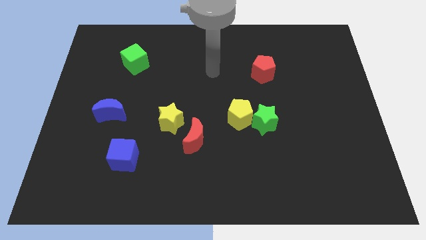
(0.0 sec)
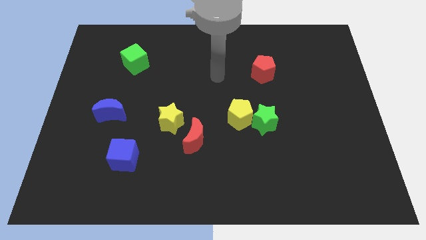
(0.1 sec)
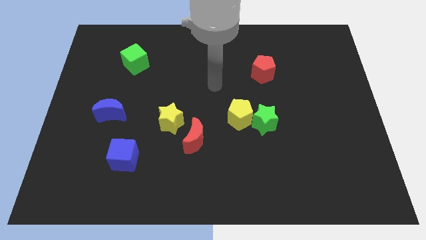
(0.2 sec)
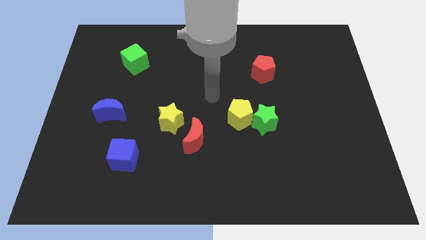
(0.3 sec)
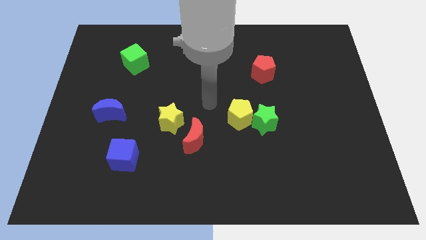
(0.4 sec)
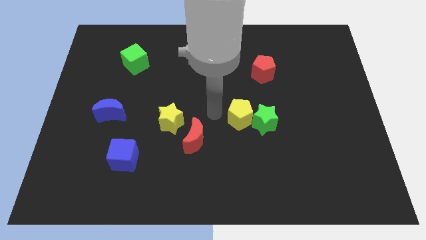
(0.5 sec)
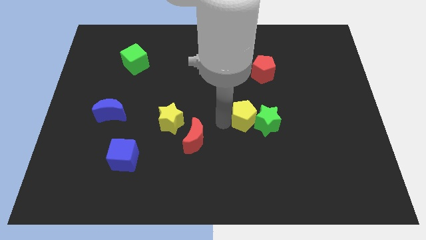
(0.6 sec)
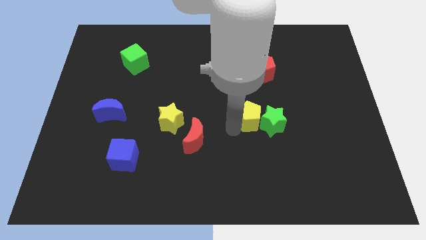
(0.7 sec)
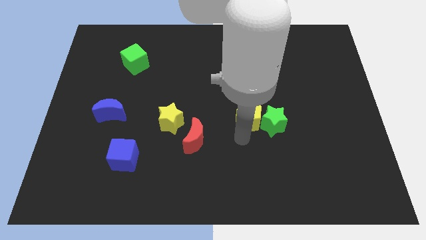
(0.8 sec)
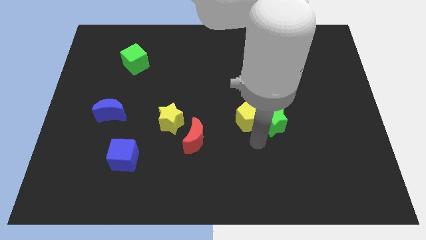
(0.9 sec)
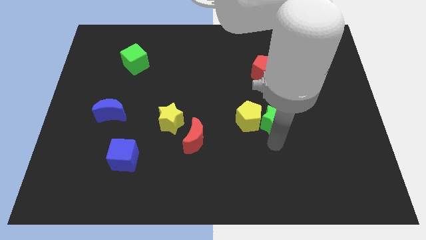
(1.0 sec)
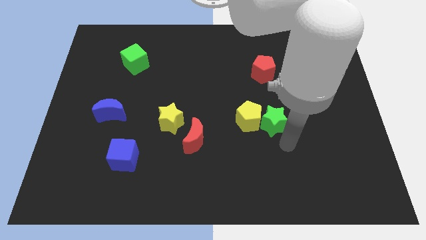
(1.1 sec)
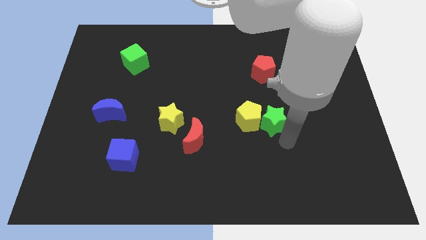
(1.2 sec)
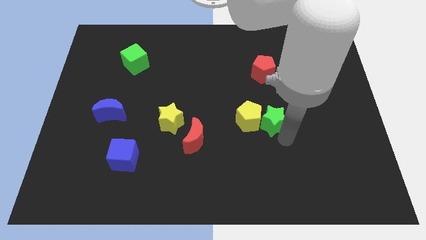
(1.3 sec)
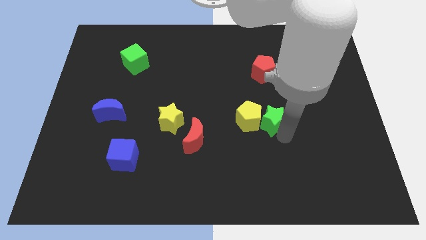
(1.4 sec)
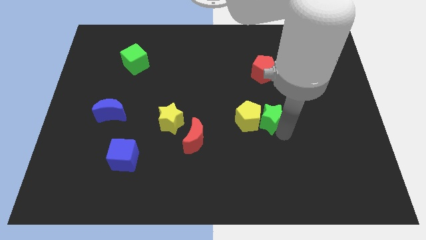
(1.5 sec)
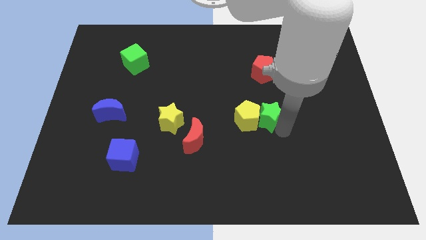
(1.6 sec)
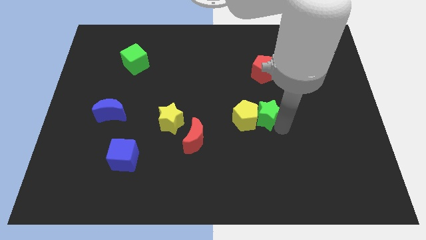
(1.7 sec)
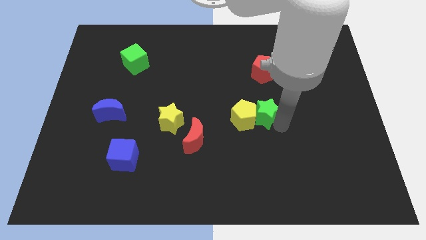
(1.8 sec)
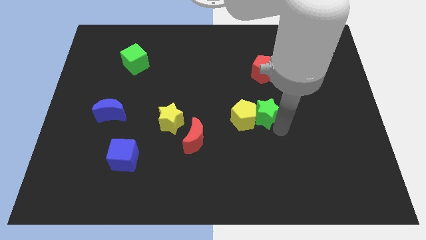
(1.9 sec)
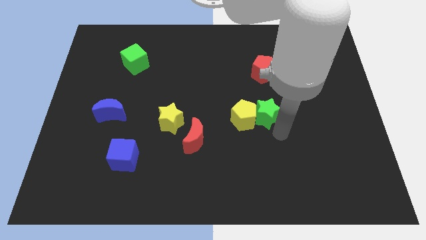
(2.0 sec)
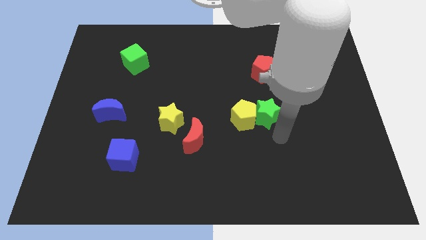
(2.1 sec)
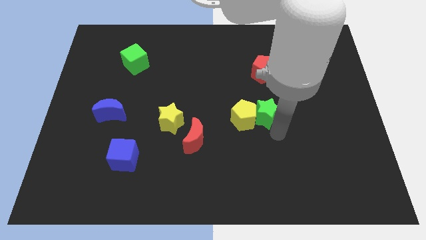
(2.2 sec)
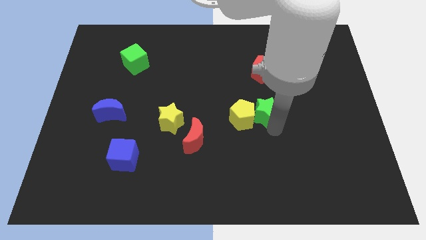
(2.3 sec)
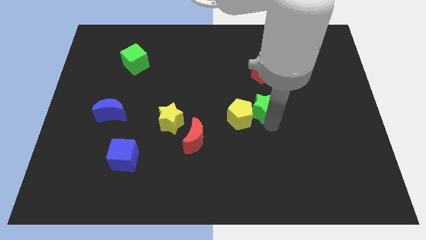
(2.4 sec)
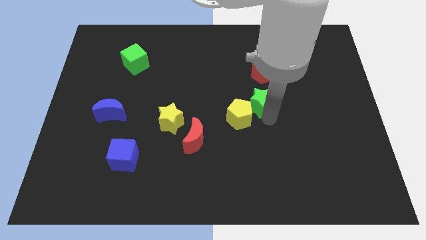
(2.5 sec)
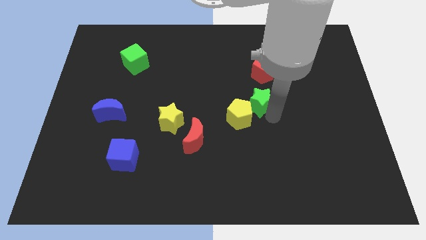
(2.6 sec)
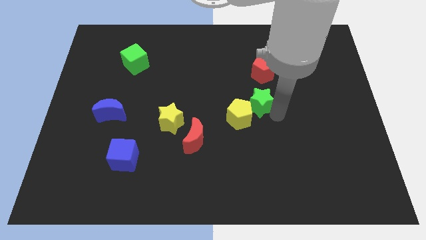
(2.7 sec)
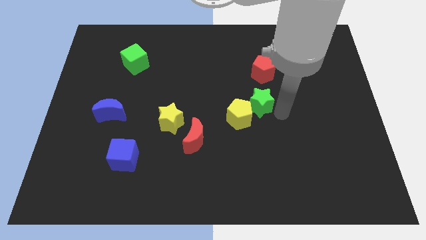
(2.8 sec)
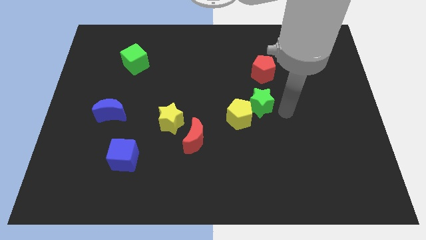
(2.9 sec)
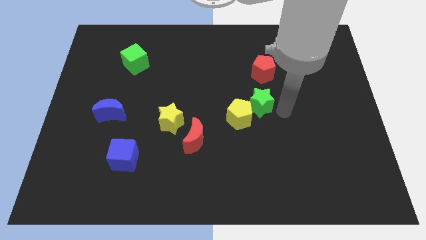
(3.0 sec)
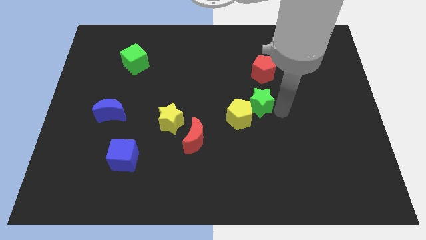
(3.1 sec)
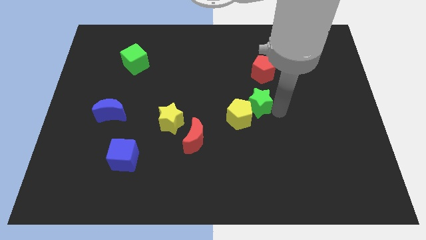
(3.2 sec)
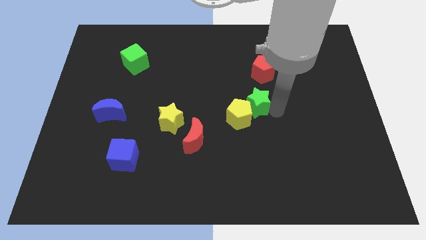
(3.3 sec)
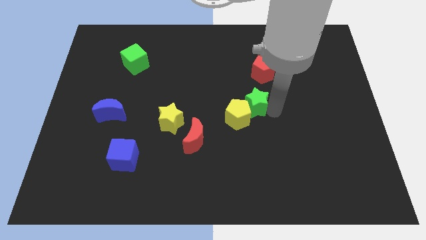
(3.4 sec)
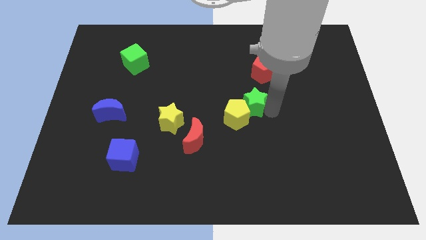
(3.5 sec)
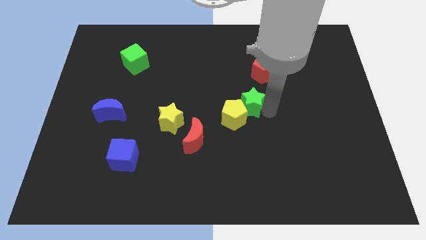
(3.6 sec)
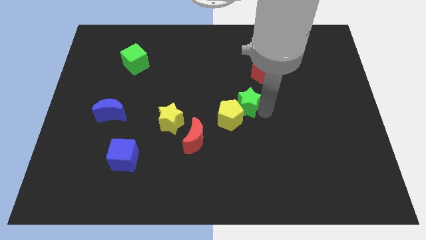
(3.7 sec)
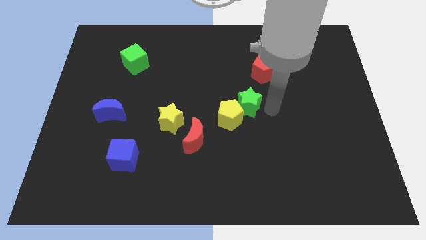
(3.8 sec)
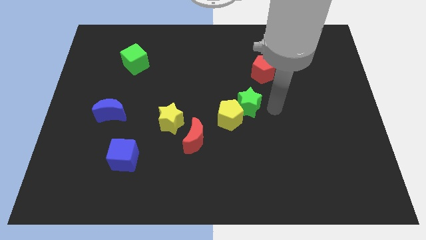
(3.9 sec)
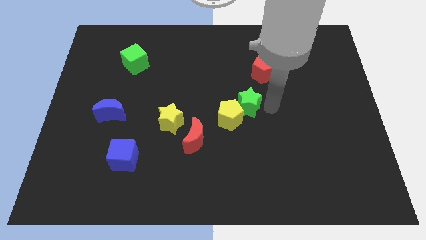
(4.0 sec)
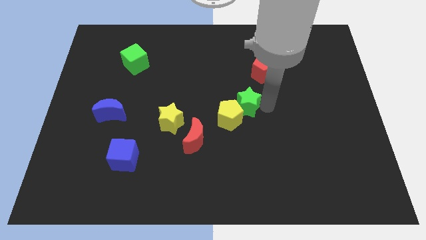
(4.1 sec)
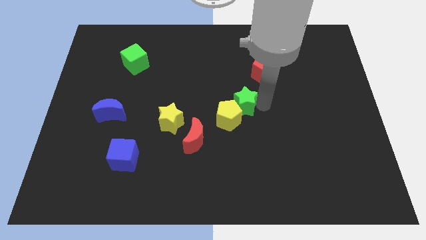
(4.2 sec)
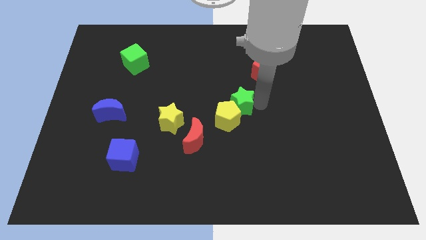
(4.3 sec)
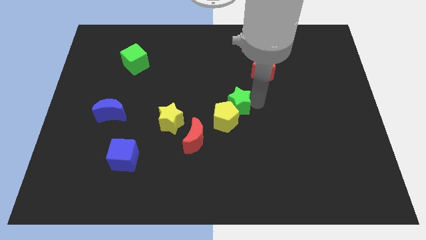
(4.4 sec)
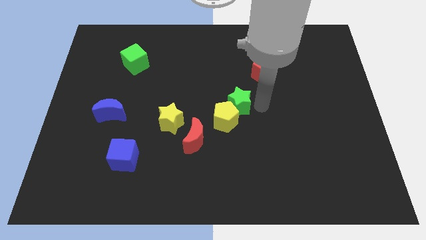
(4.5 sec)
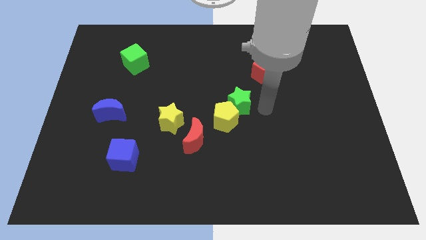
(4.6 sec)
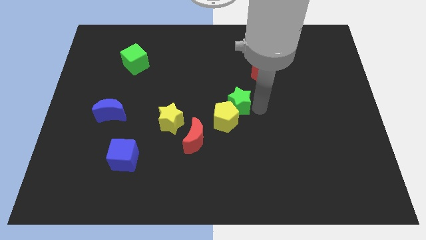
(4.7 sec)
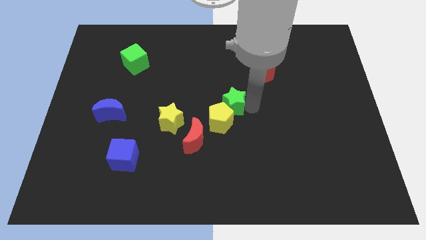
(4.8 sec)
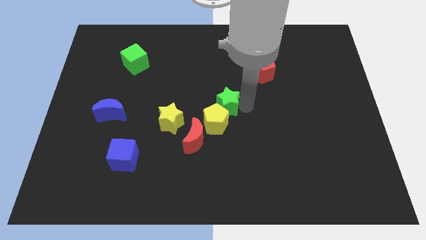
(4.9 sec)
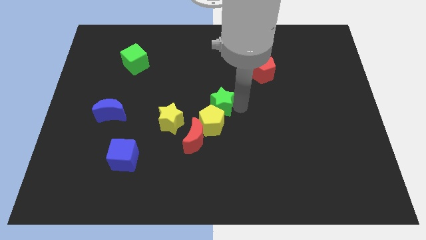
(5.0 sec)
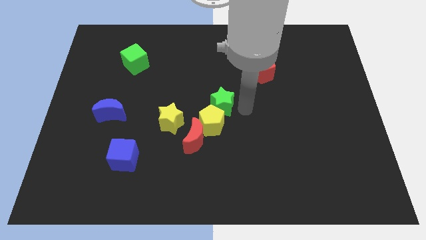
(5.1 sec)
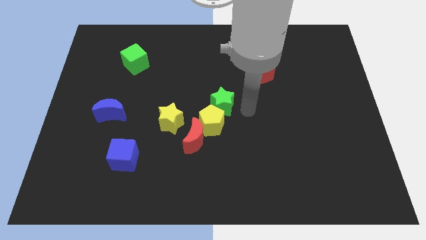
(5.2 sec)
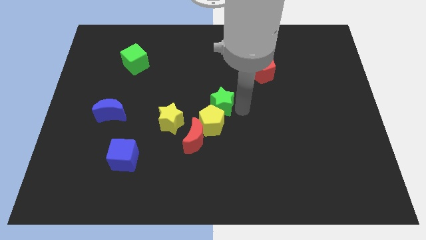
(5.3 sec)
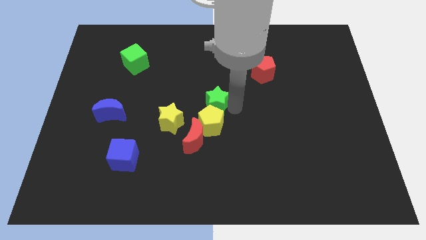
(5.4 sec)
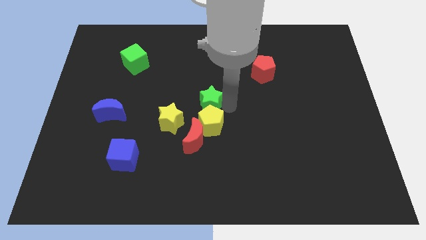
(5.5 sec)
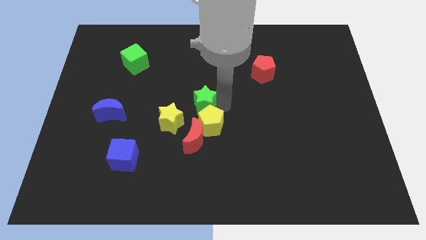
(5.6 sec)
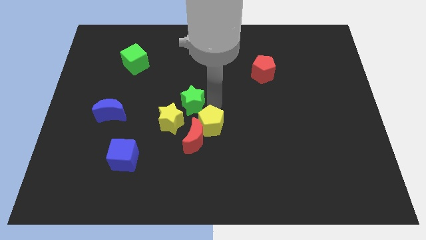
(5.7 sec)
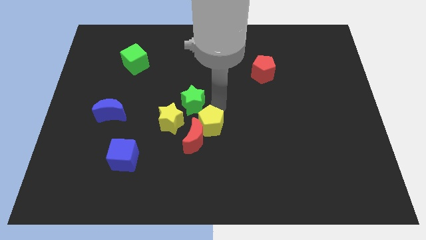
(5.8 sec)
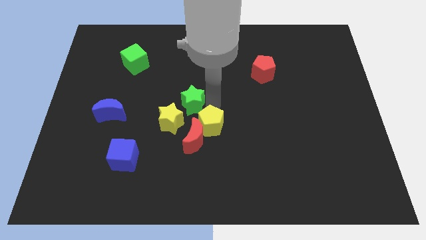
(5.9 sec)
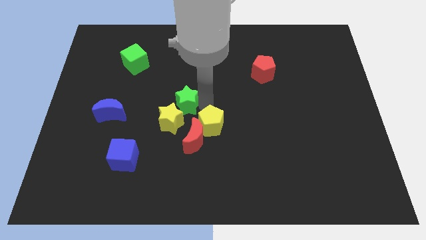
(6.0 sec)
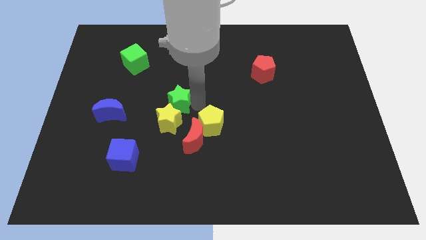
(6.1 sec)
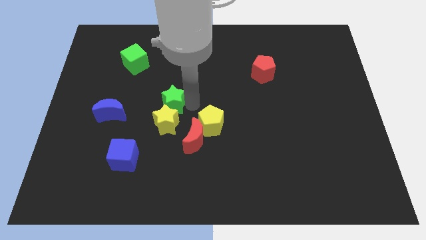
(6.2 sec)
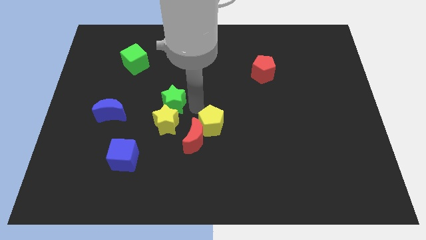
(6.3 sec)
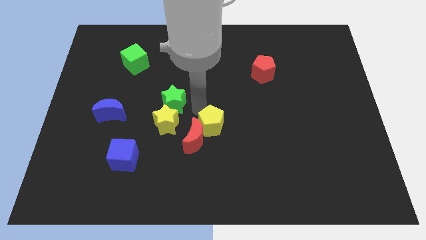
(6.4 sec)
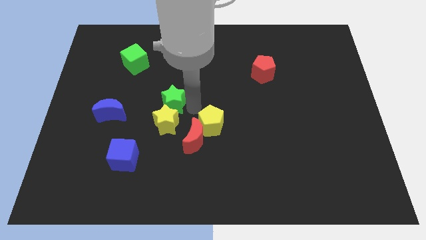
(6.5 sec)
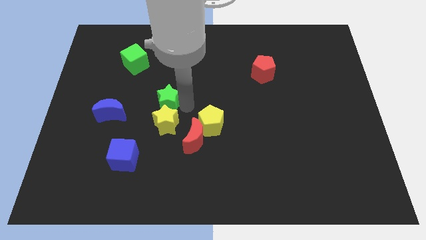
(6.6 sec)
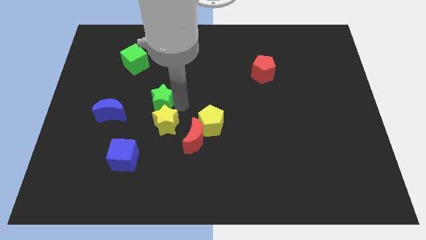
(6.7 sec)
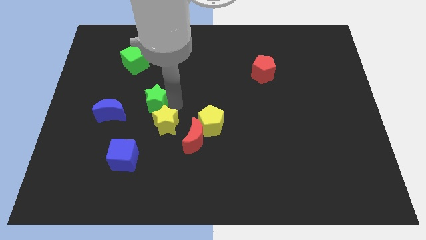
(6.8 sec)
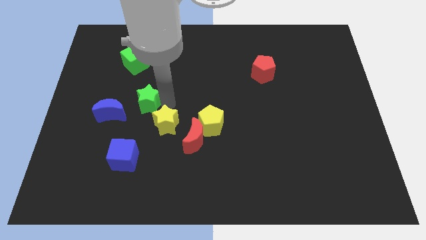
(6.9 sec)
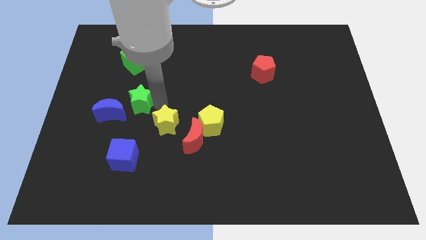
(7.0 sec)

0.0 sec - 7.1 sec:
put the green star to the bottom side of the green cube

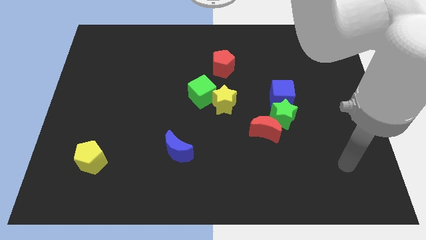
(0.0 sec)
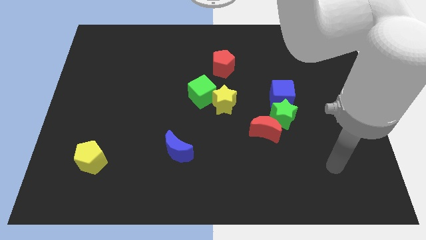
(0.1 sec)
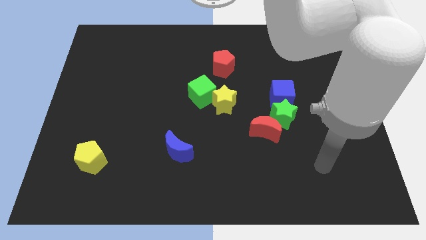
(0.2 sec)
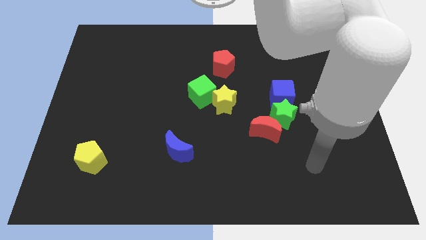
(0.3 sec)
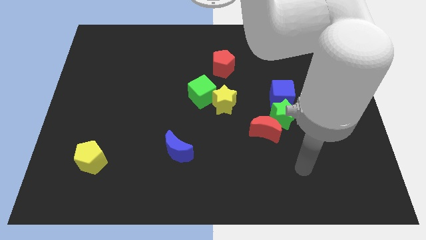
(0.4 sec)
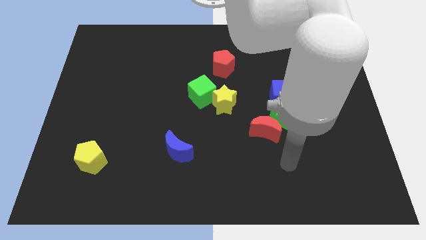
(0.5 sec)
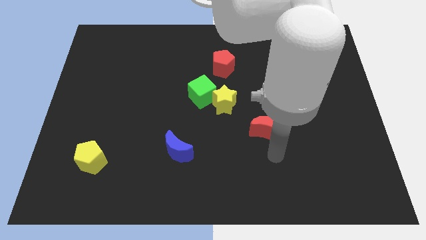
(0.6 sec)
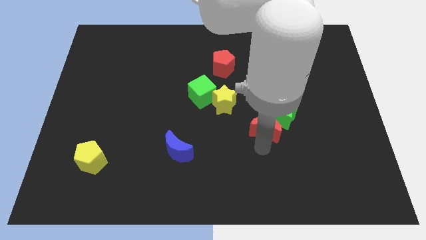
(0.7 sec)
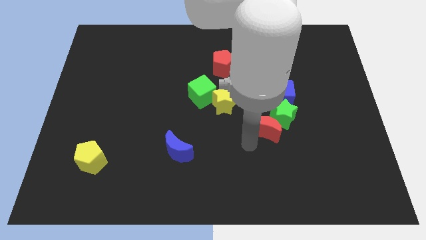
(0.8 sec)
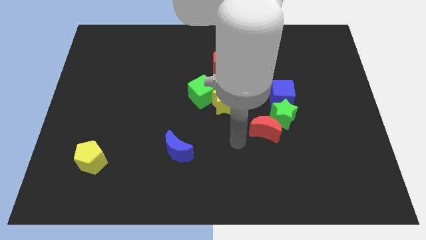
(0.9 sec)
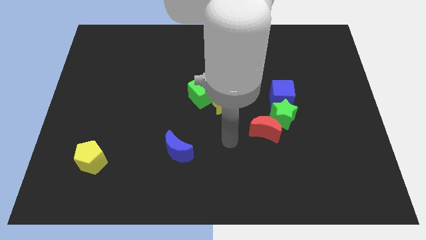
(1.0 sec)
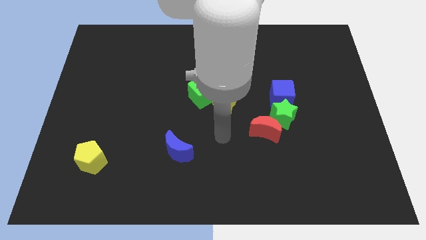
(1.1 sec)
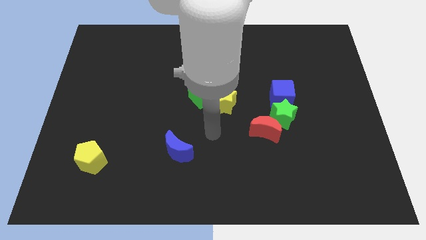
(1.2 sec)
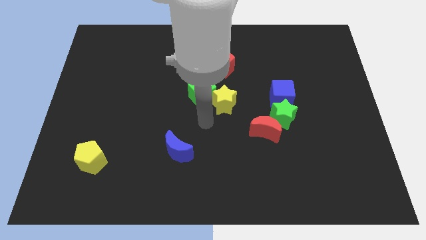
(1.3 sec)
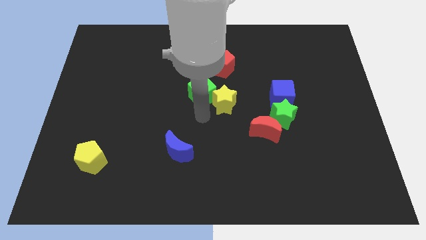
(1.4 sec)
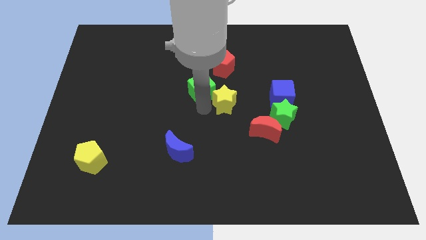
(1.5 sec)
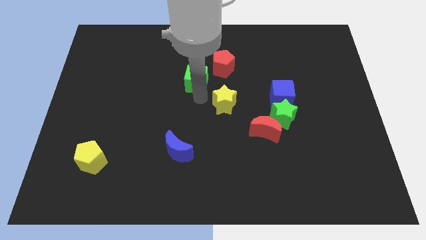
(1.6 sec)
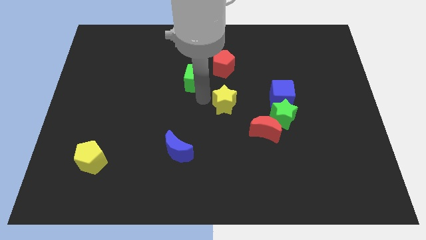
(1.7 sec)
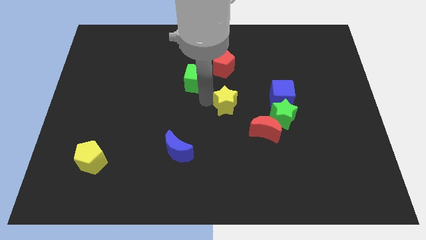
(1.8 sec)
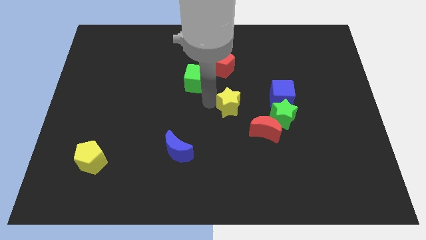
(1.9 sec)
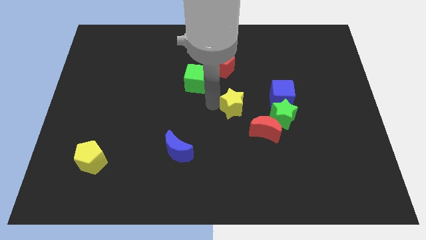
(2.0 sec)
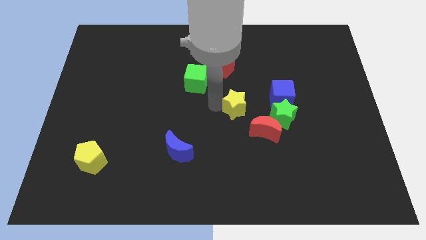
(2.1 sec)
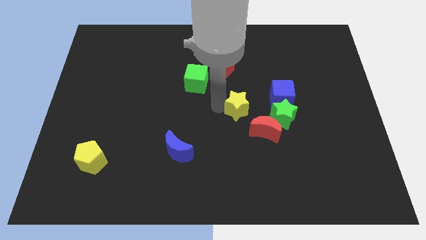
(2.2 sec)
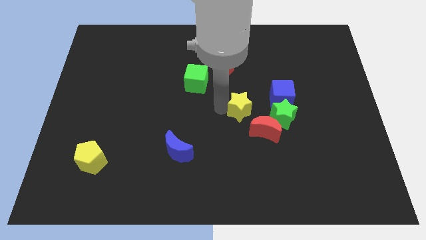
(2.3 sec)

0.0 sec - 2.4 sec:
slide the yellow star to the bottom left side of the blue cube
